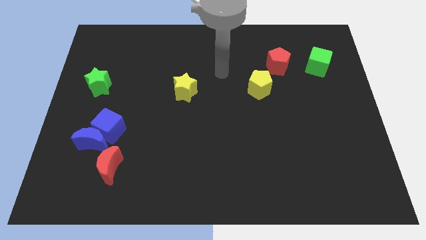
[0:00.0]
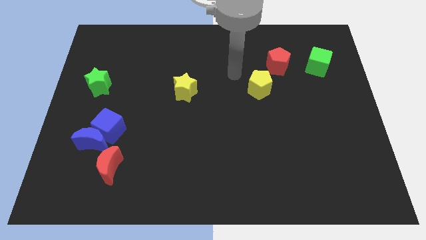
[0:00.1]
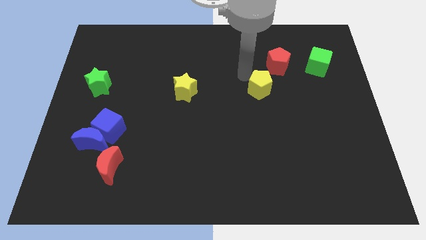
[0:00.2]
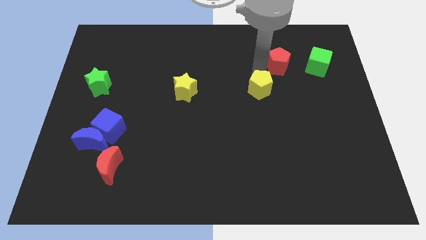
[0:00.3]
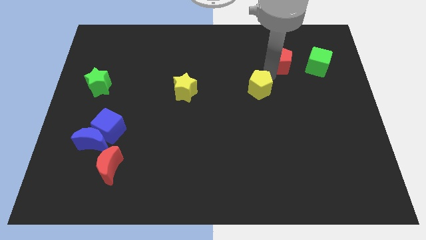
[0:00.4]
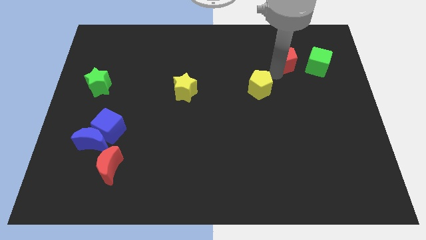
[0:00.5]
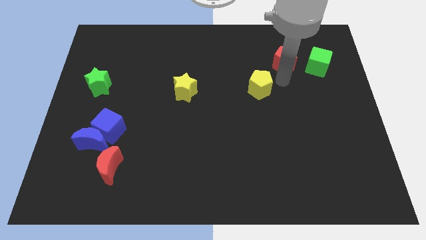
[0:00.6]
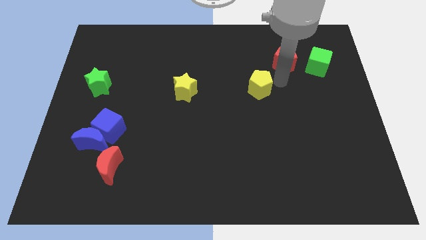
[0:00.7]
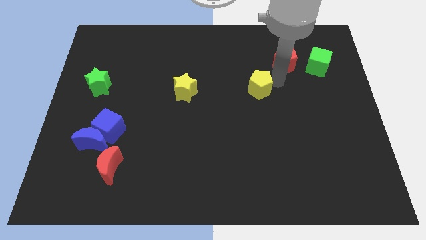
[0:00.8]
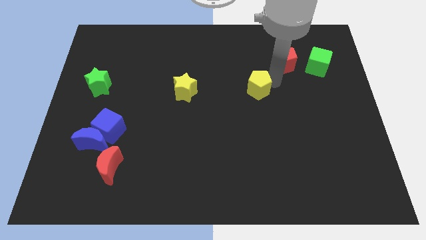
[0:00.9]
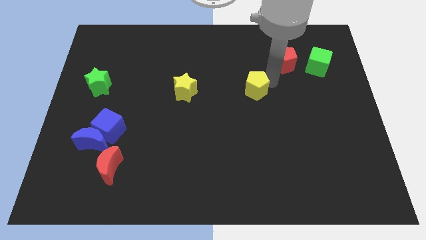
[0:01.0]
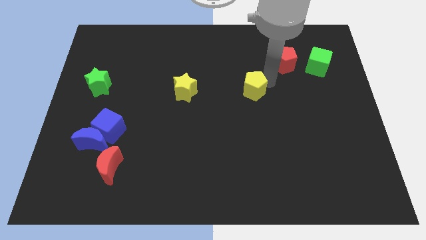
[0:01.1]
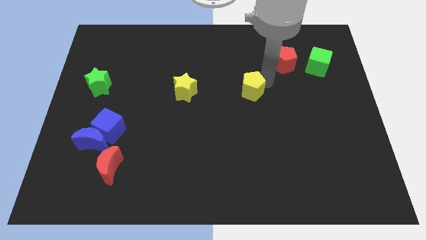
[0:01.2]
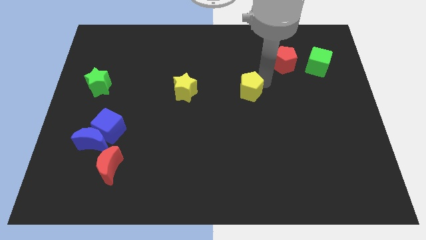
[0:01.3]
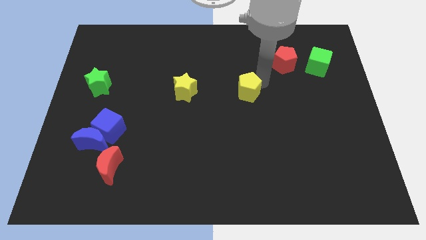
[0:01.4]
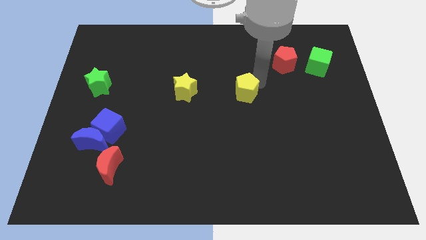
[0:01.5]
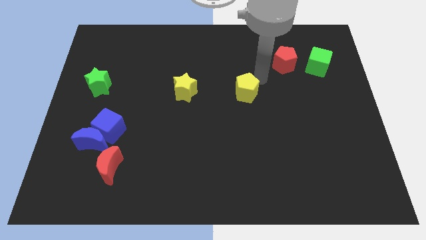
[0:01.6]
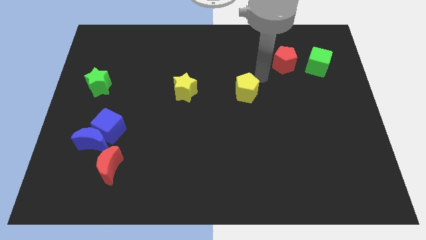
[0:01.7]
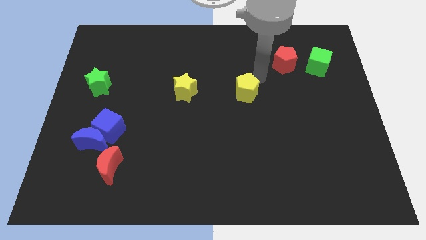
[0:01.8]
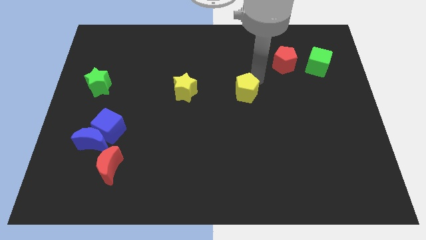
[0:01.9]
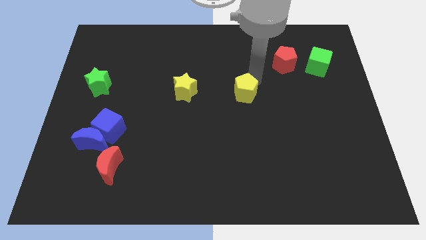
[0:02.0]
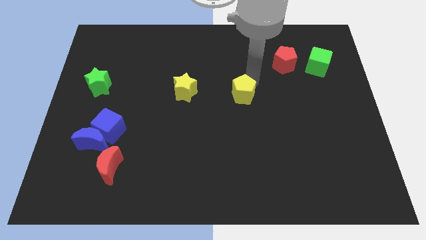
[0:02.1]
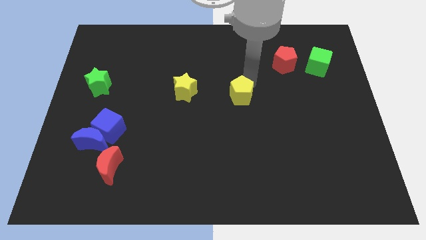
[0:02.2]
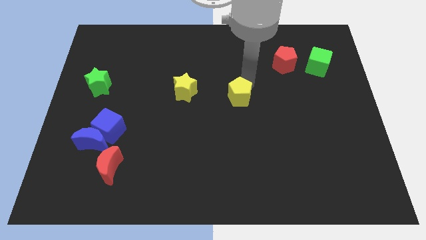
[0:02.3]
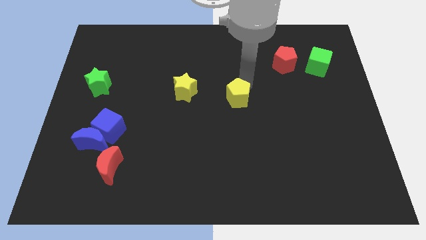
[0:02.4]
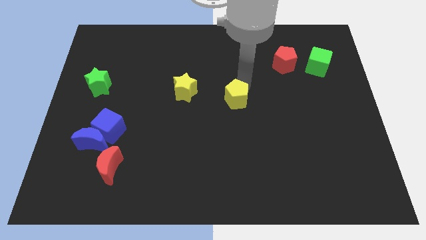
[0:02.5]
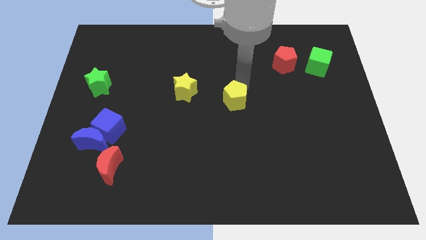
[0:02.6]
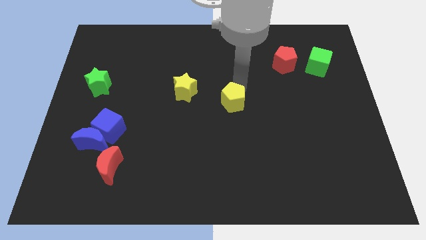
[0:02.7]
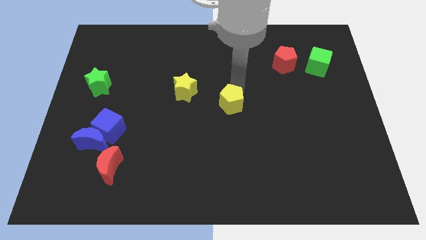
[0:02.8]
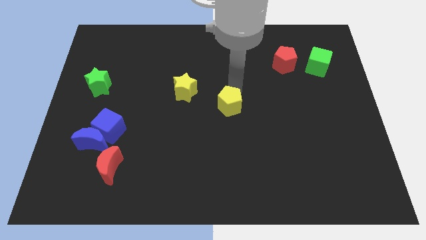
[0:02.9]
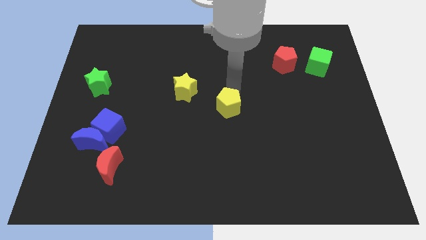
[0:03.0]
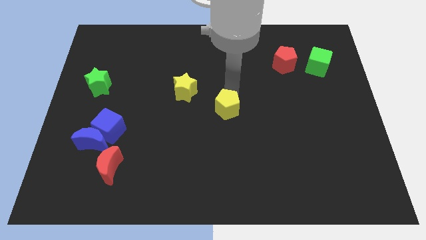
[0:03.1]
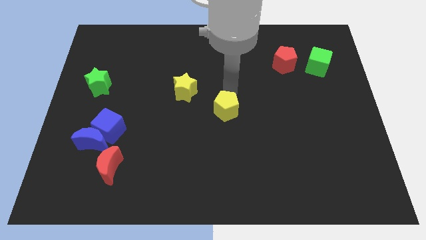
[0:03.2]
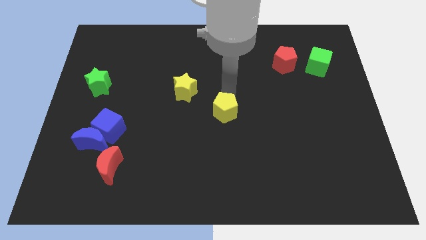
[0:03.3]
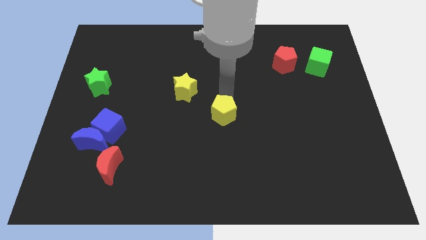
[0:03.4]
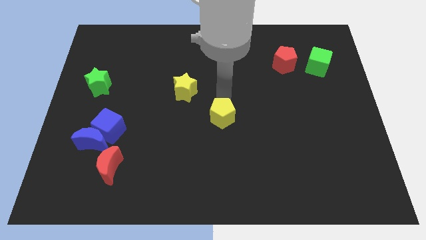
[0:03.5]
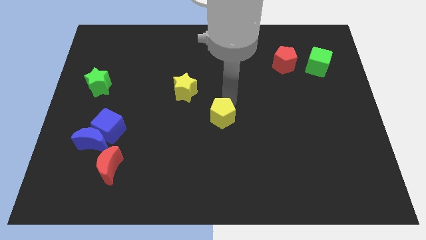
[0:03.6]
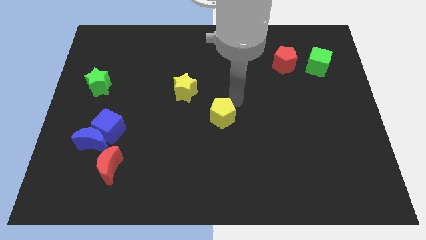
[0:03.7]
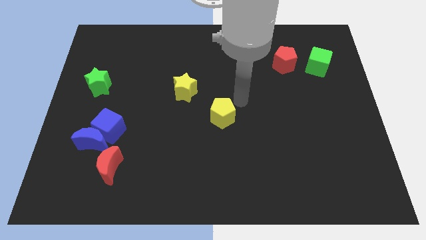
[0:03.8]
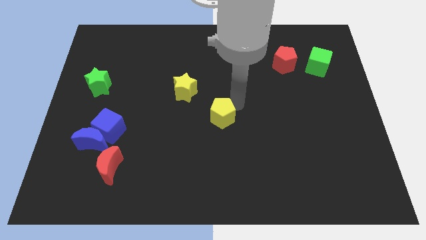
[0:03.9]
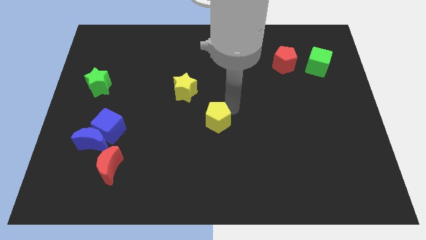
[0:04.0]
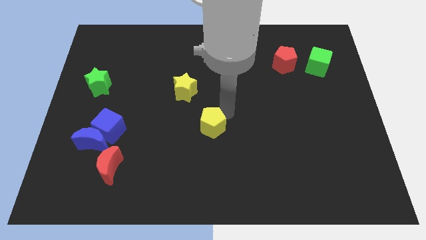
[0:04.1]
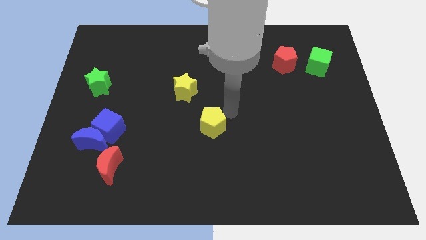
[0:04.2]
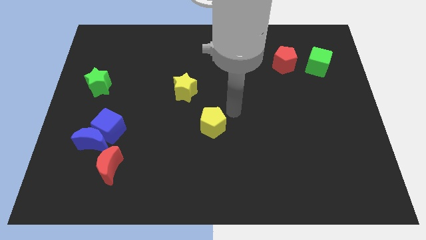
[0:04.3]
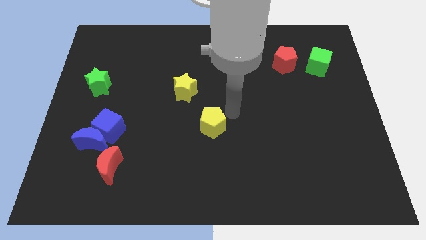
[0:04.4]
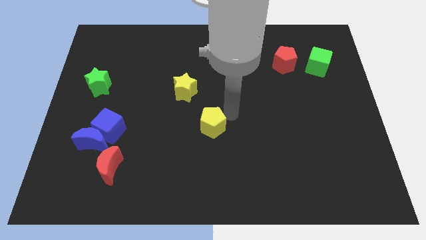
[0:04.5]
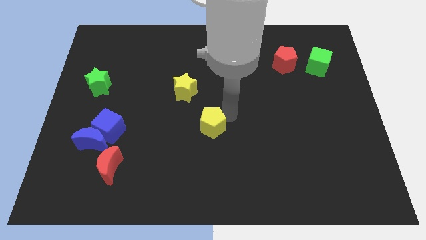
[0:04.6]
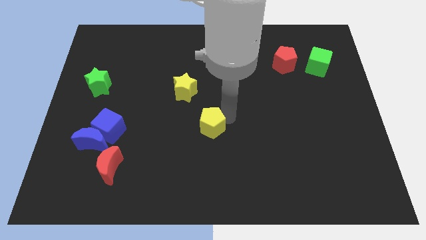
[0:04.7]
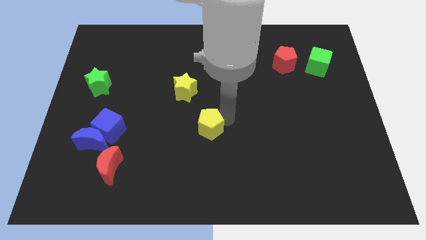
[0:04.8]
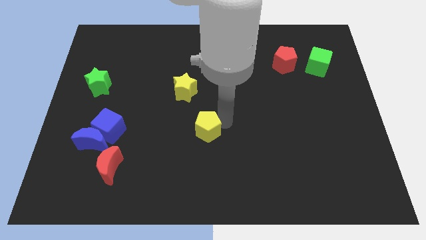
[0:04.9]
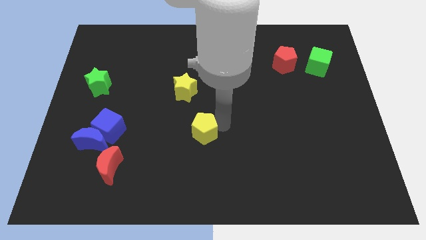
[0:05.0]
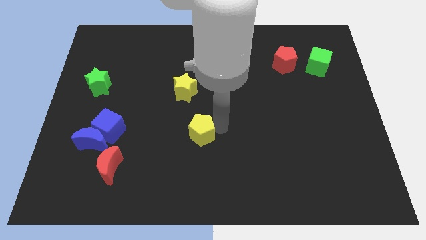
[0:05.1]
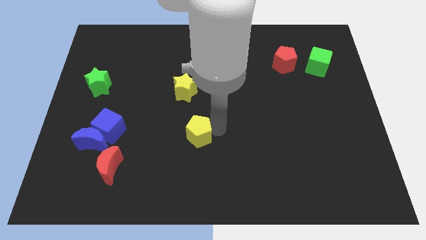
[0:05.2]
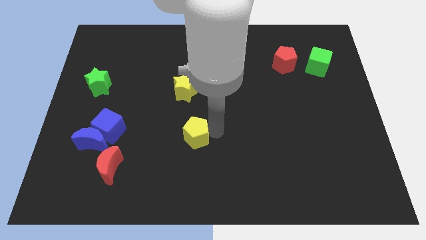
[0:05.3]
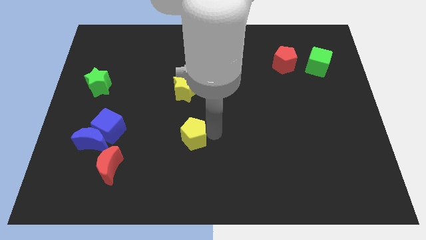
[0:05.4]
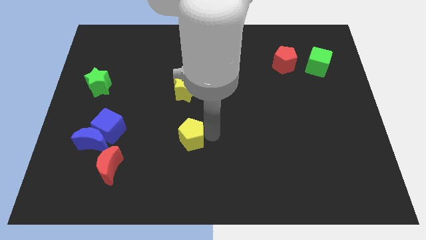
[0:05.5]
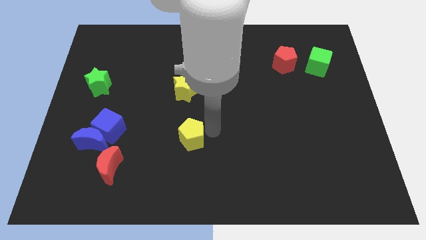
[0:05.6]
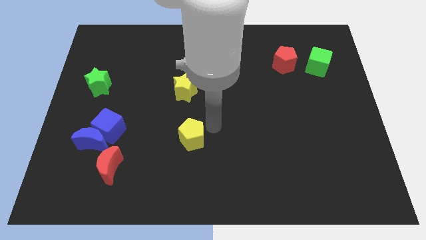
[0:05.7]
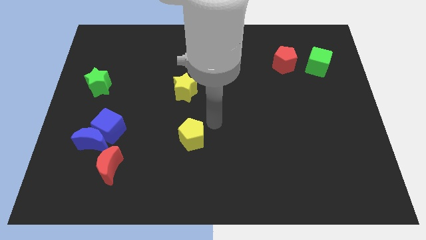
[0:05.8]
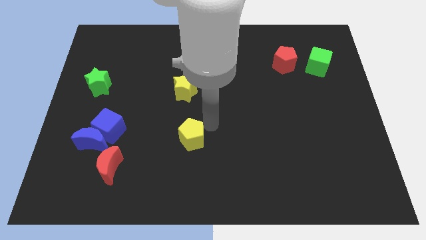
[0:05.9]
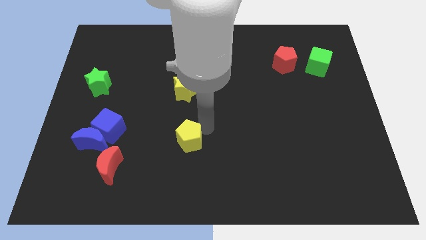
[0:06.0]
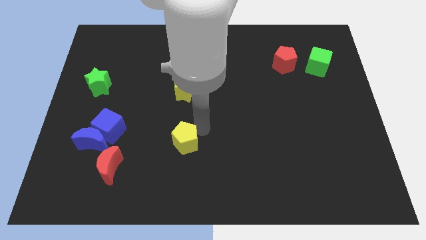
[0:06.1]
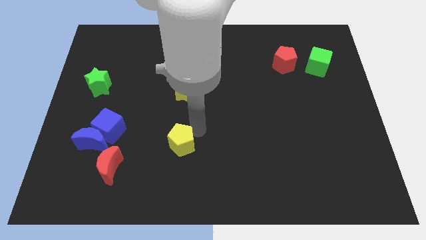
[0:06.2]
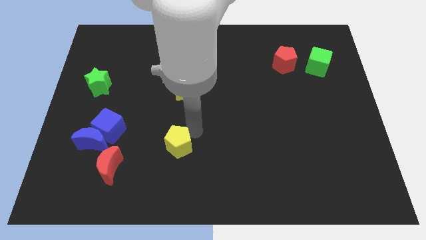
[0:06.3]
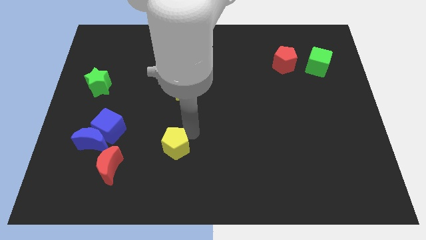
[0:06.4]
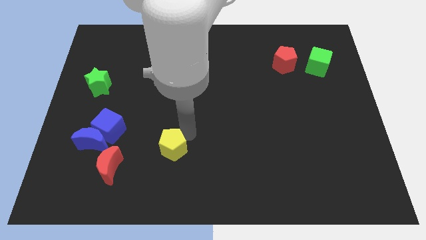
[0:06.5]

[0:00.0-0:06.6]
slide the yellow pentagon right of the red moon
